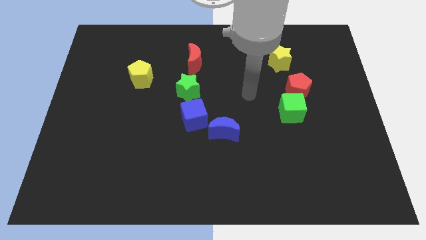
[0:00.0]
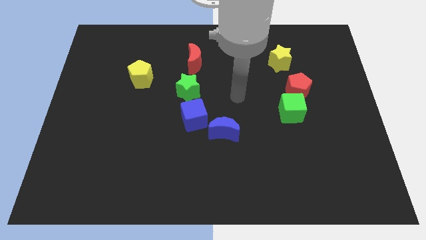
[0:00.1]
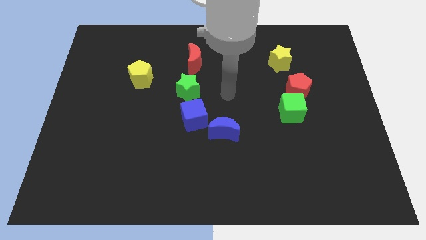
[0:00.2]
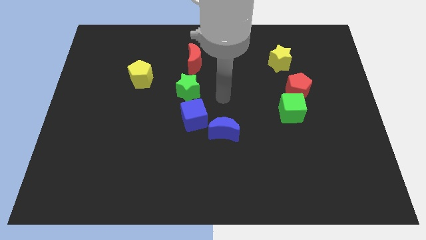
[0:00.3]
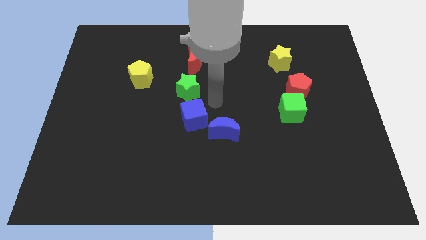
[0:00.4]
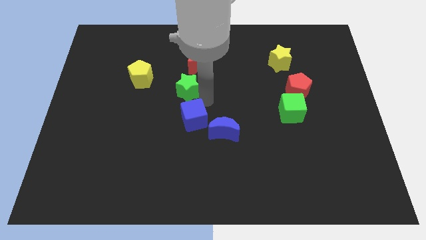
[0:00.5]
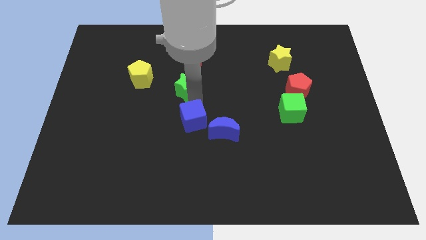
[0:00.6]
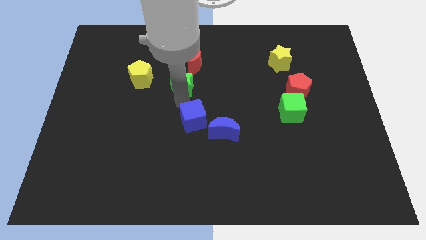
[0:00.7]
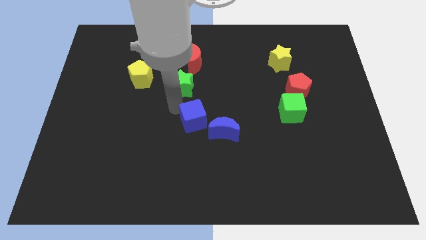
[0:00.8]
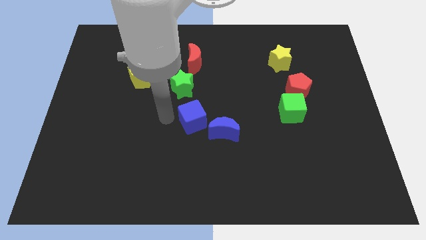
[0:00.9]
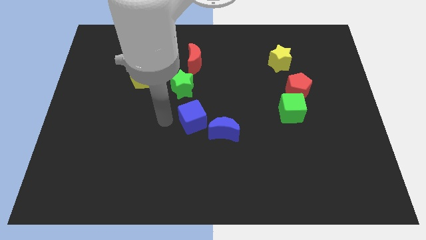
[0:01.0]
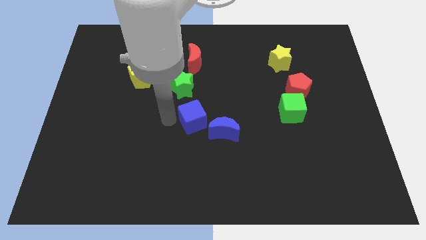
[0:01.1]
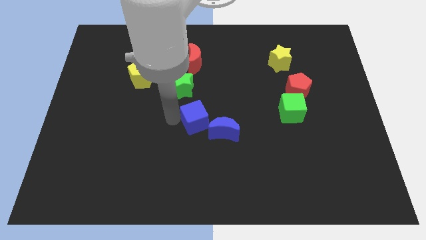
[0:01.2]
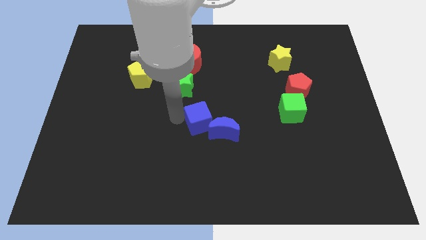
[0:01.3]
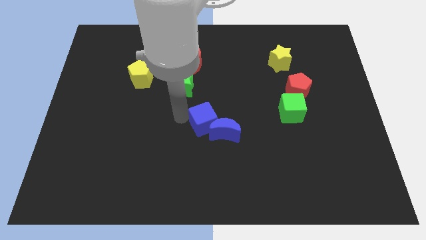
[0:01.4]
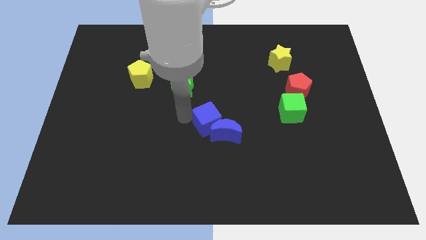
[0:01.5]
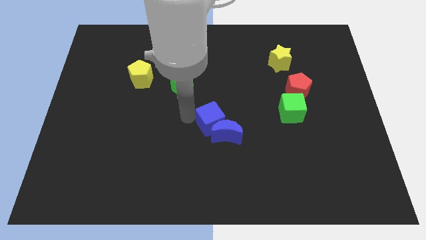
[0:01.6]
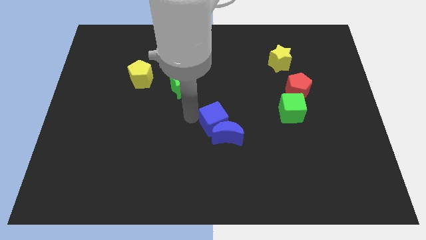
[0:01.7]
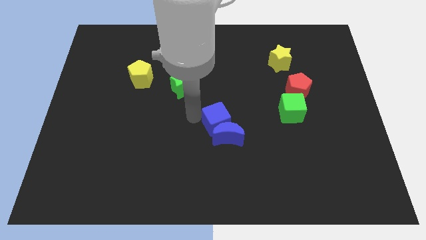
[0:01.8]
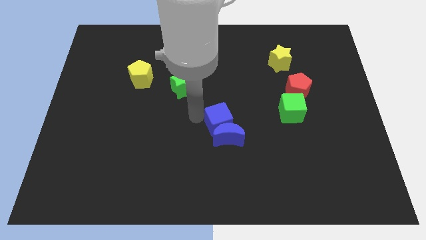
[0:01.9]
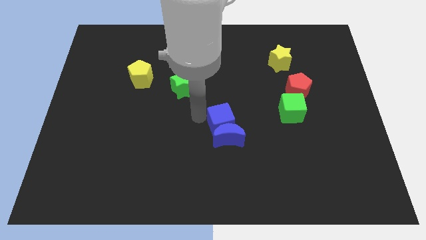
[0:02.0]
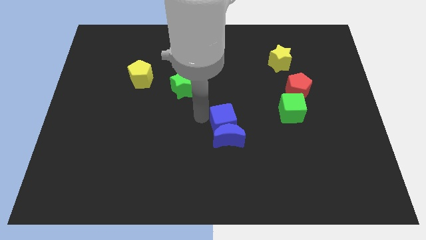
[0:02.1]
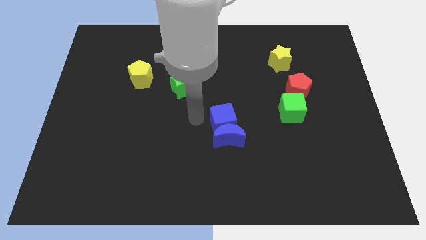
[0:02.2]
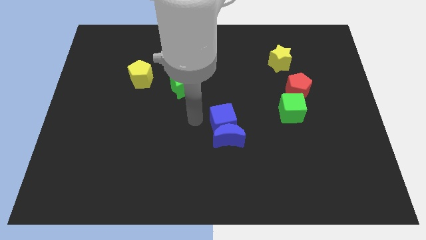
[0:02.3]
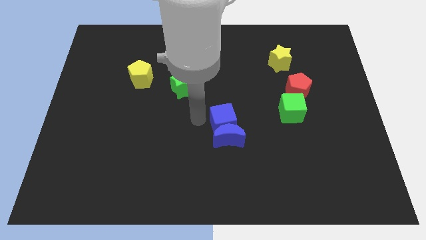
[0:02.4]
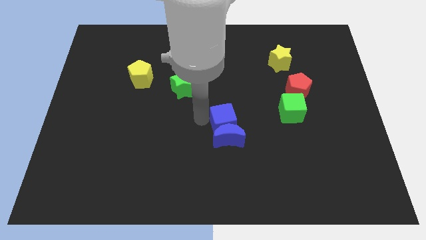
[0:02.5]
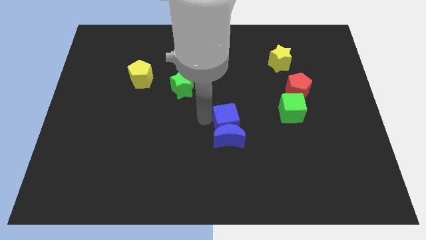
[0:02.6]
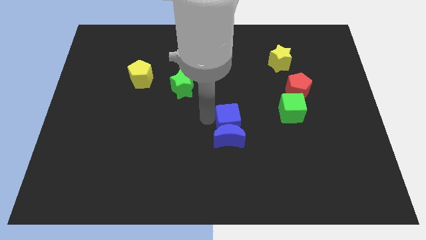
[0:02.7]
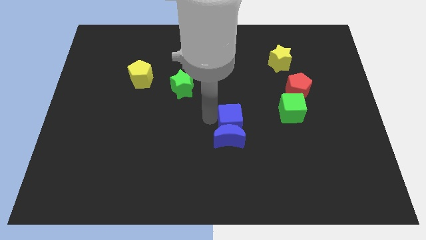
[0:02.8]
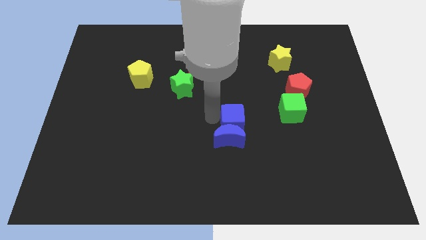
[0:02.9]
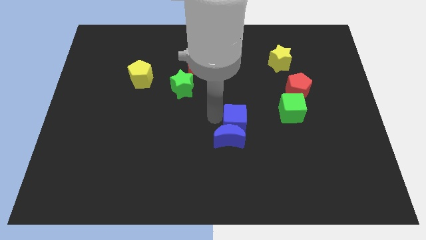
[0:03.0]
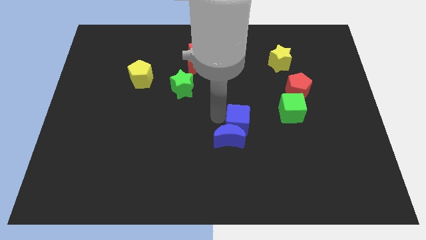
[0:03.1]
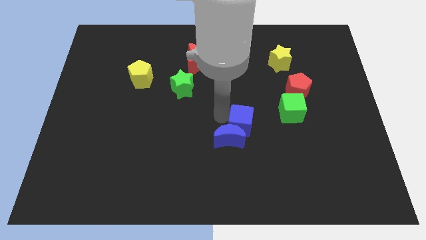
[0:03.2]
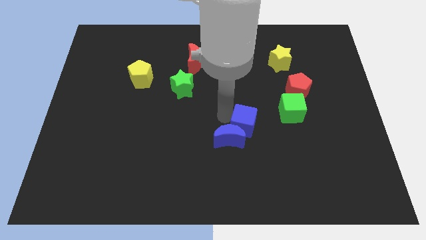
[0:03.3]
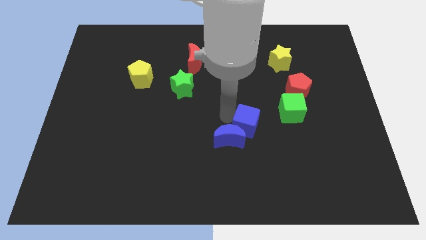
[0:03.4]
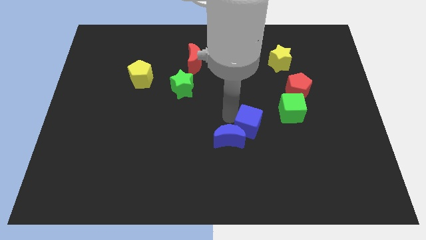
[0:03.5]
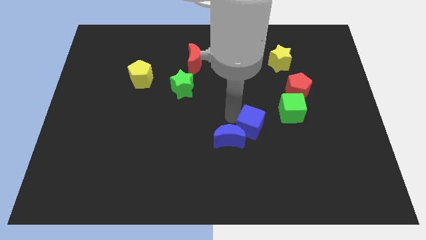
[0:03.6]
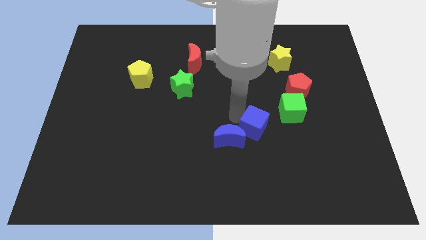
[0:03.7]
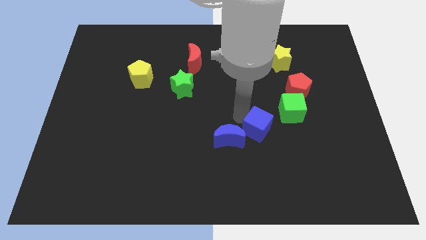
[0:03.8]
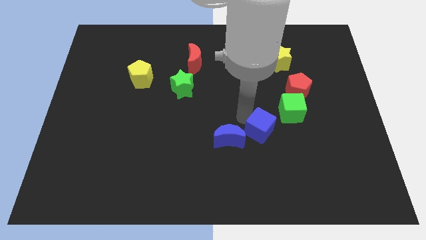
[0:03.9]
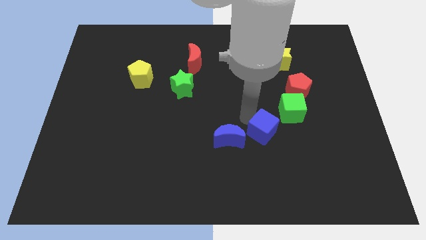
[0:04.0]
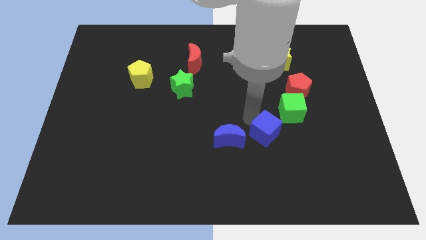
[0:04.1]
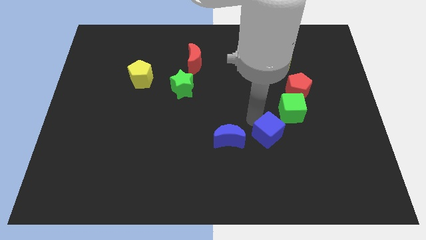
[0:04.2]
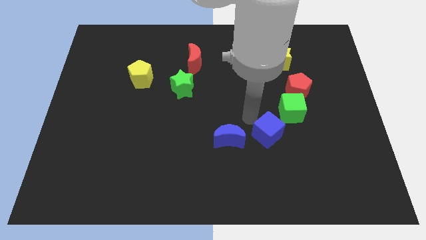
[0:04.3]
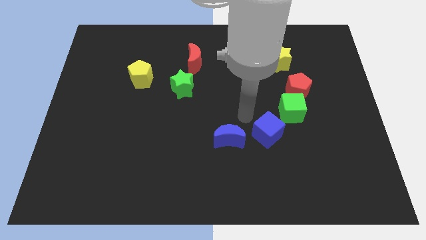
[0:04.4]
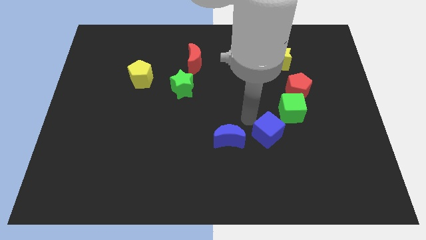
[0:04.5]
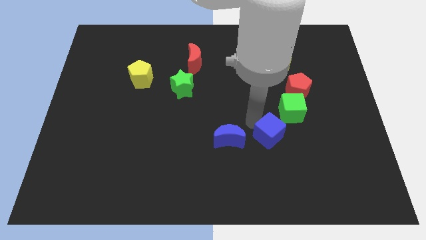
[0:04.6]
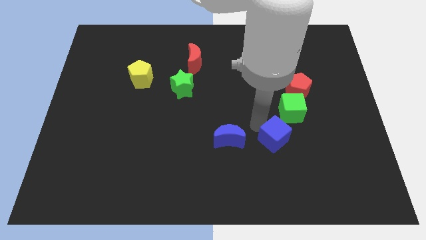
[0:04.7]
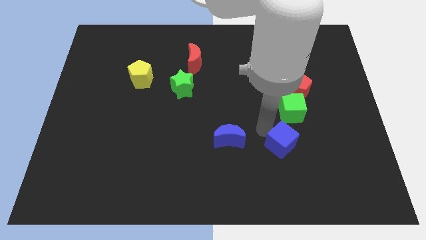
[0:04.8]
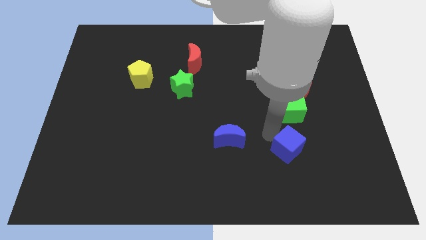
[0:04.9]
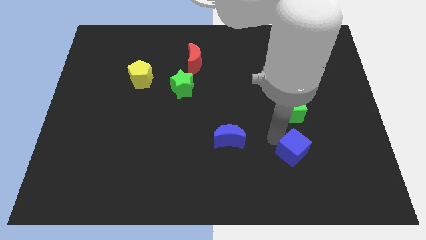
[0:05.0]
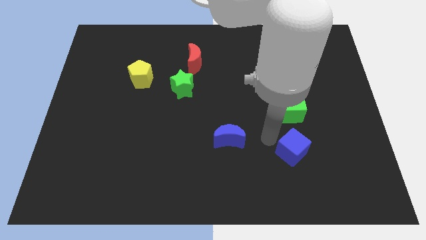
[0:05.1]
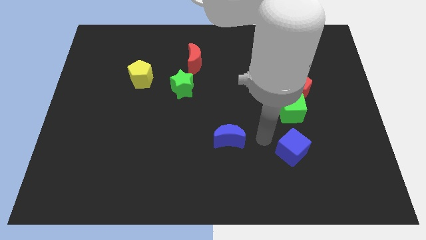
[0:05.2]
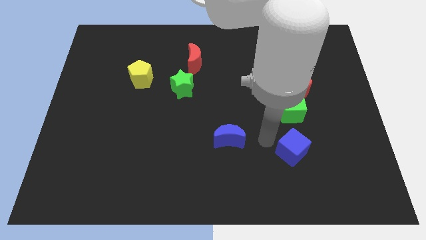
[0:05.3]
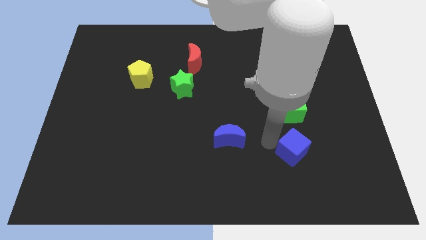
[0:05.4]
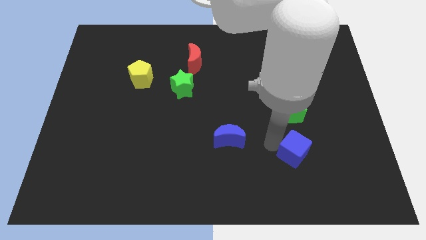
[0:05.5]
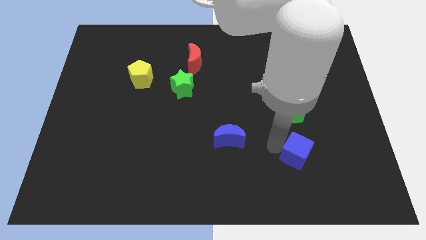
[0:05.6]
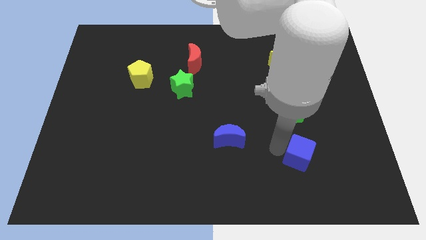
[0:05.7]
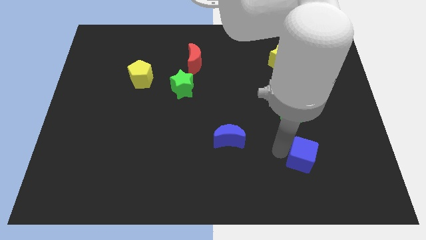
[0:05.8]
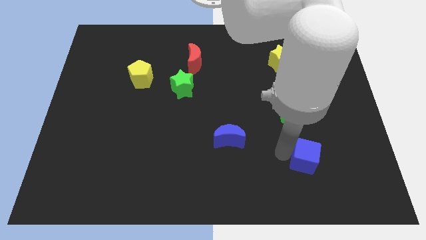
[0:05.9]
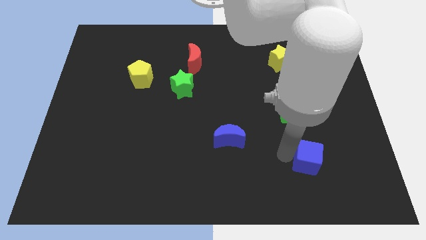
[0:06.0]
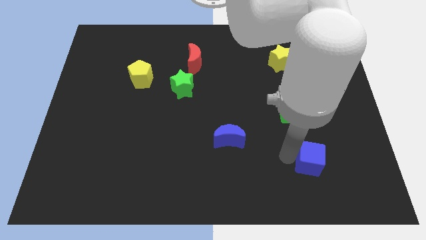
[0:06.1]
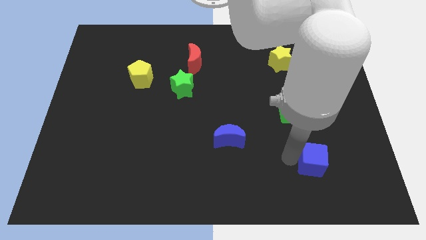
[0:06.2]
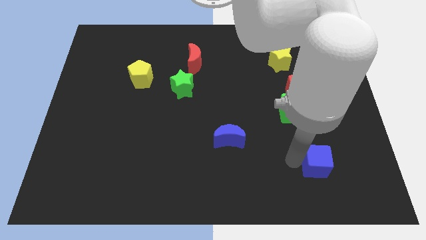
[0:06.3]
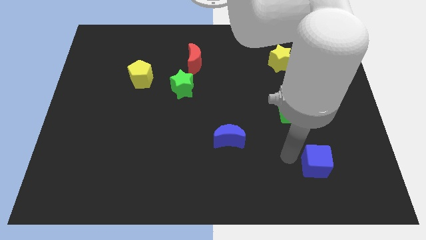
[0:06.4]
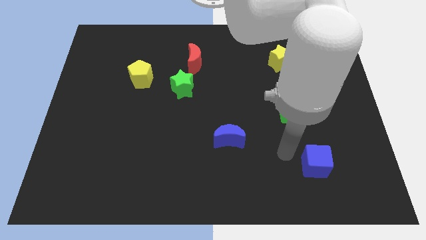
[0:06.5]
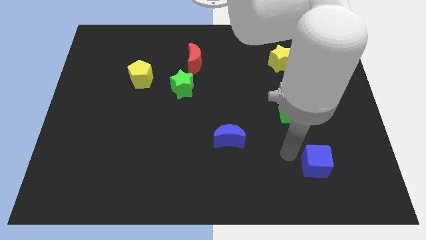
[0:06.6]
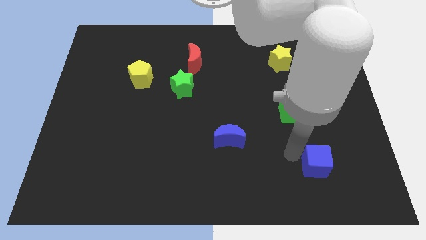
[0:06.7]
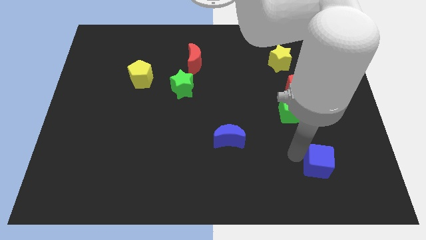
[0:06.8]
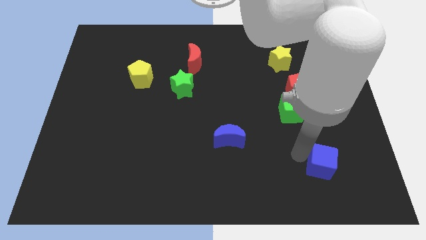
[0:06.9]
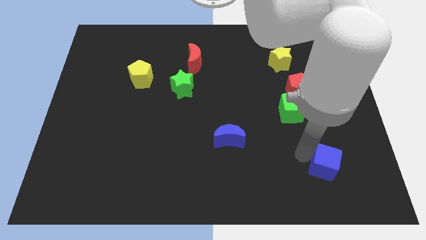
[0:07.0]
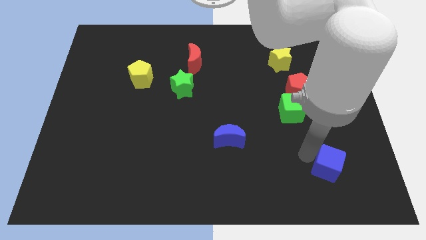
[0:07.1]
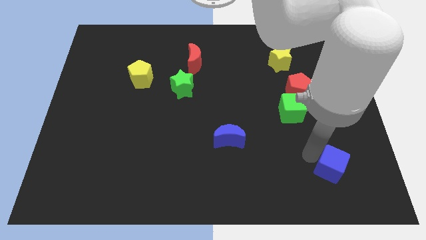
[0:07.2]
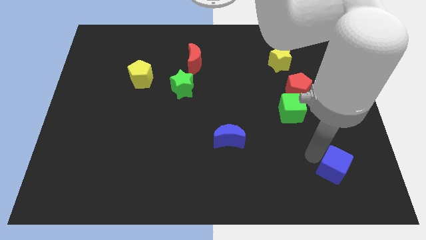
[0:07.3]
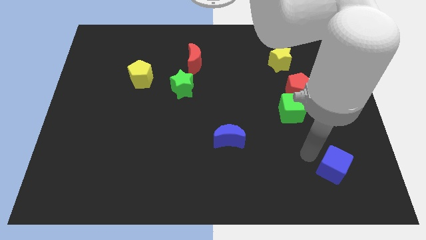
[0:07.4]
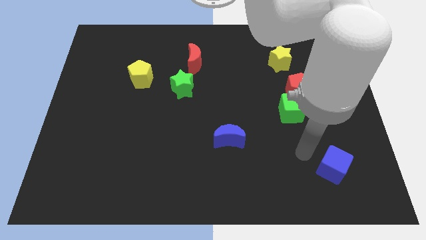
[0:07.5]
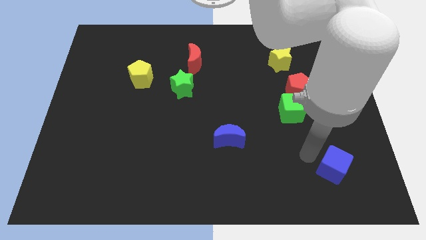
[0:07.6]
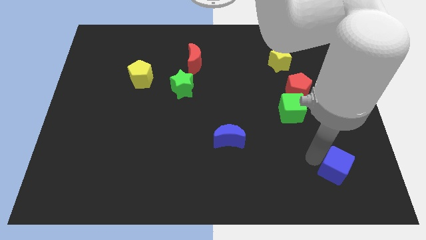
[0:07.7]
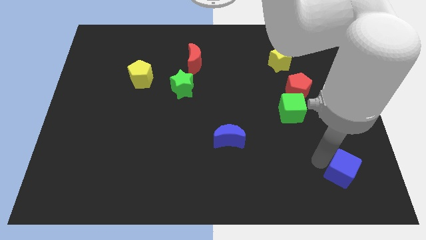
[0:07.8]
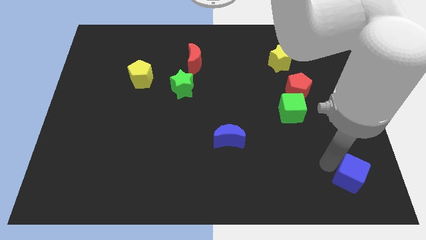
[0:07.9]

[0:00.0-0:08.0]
slide the blue cube to the bottom right corner

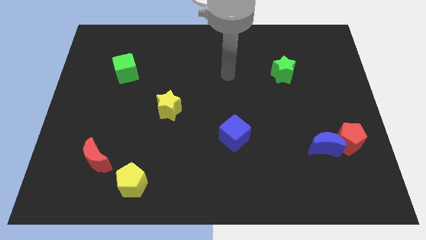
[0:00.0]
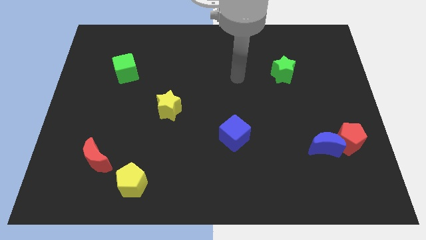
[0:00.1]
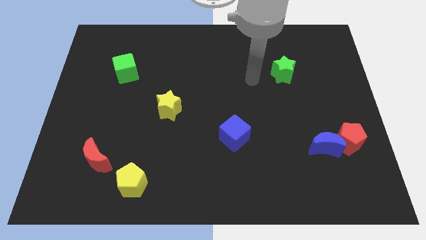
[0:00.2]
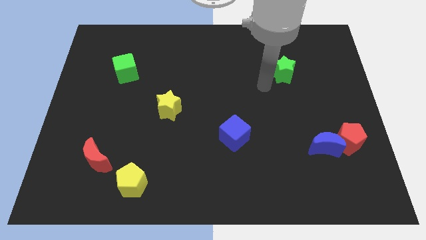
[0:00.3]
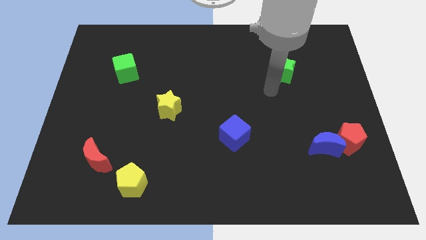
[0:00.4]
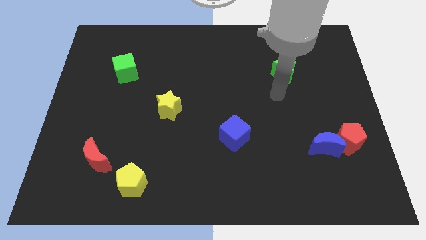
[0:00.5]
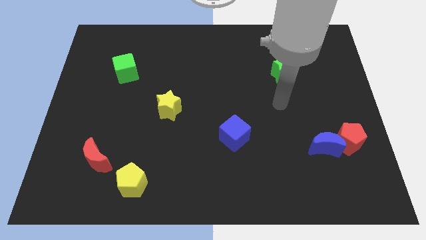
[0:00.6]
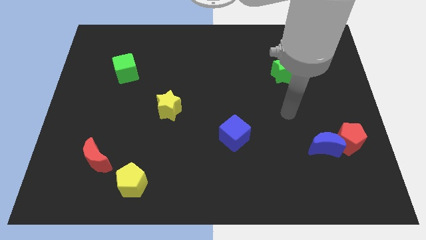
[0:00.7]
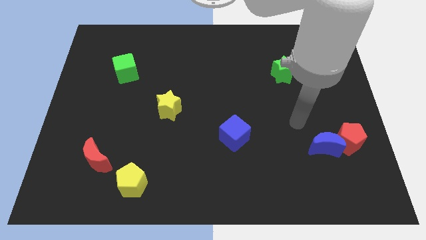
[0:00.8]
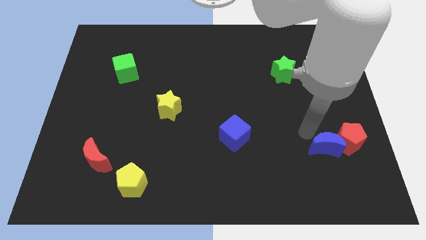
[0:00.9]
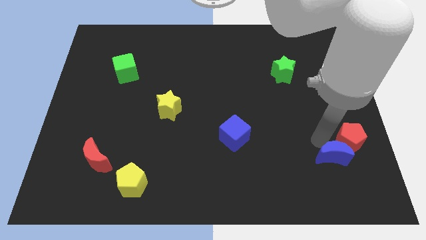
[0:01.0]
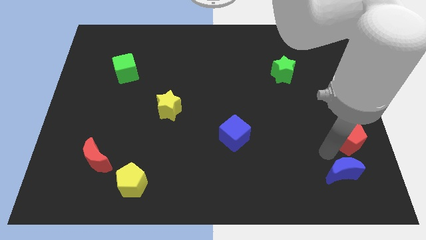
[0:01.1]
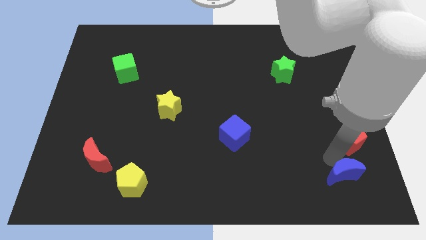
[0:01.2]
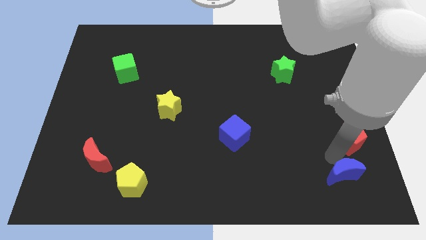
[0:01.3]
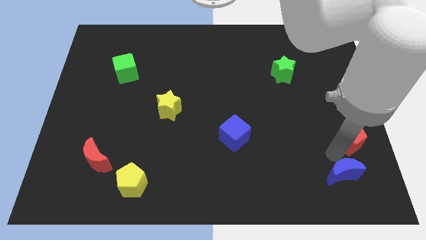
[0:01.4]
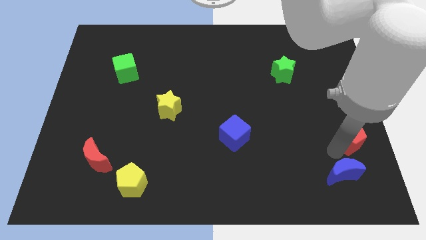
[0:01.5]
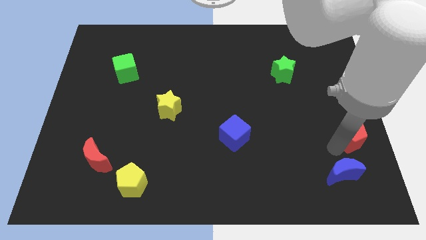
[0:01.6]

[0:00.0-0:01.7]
slide the red pentagon to the right side
